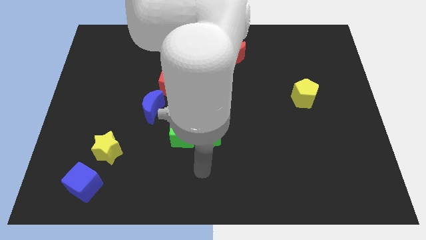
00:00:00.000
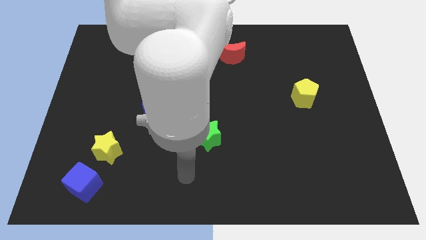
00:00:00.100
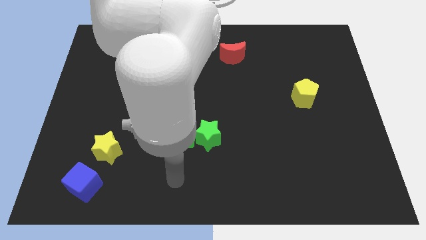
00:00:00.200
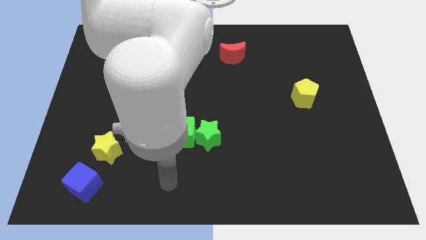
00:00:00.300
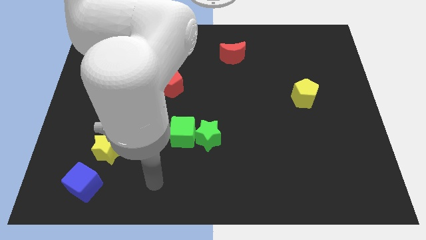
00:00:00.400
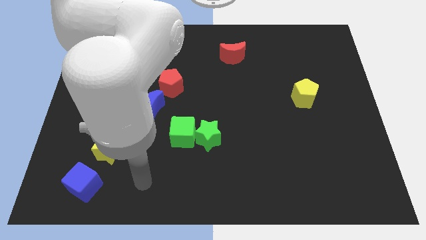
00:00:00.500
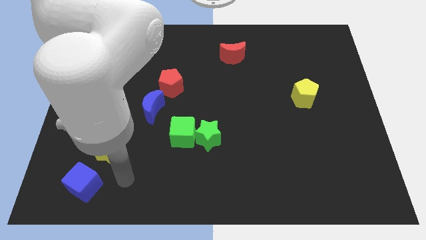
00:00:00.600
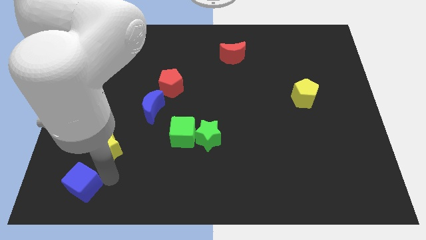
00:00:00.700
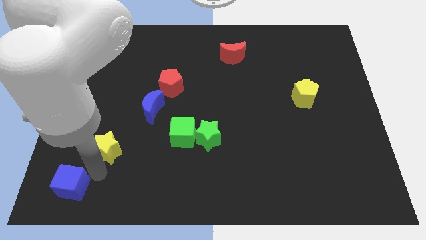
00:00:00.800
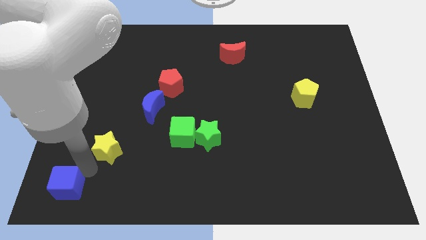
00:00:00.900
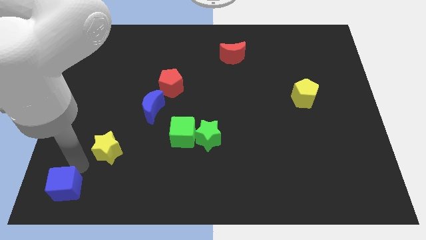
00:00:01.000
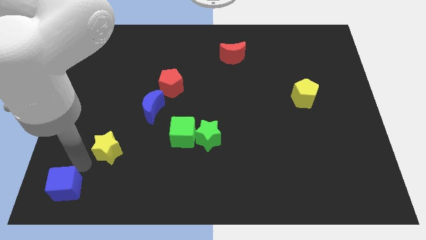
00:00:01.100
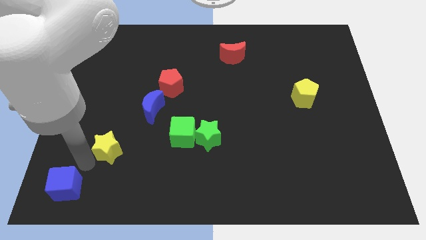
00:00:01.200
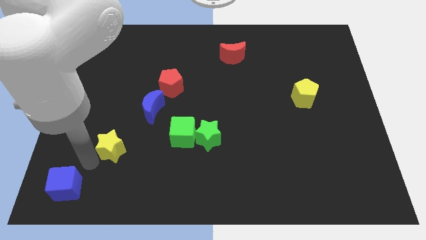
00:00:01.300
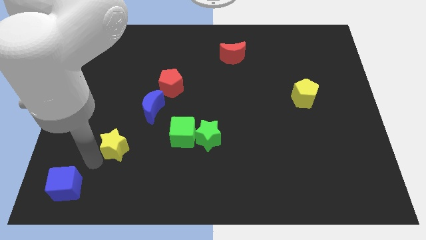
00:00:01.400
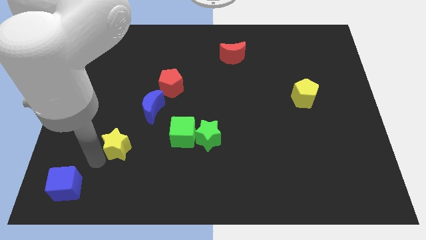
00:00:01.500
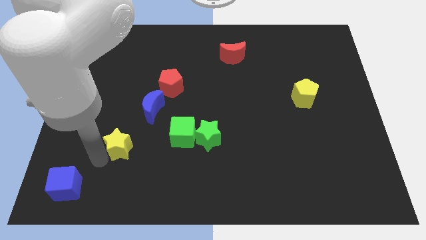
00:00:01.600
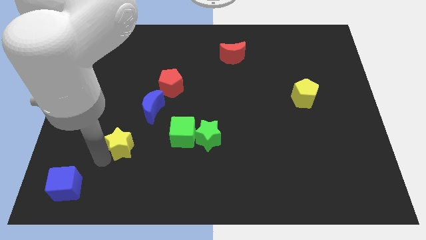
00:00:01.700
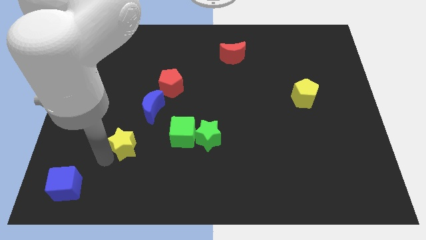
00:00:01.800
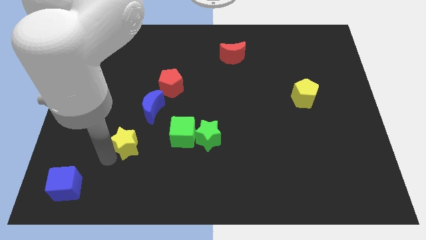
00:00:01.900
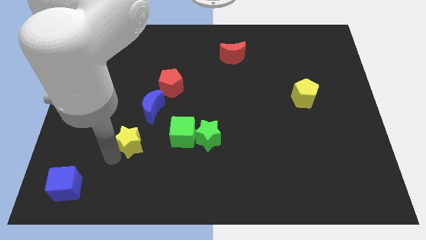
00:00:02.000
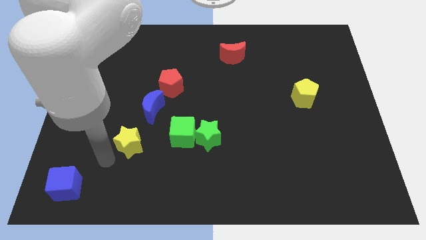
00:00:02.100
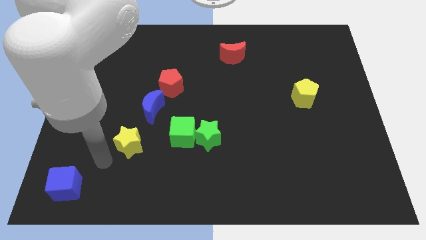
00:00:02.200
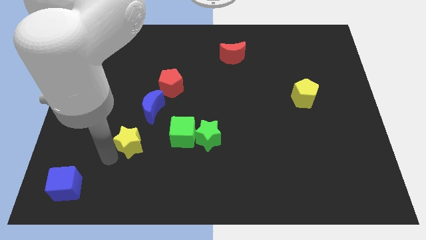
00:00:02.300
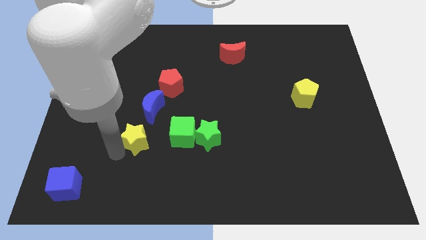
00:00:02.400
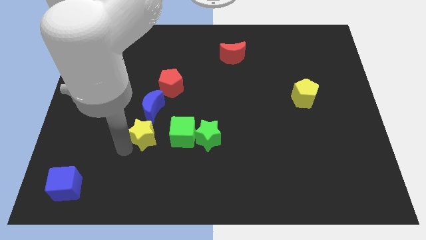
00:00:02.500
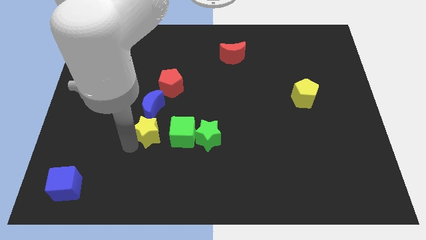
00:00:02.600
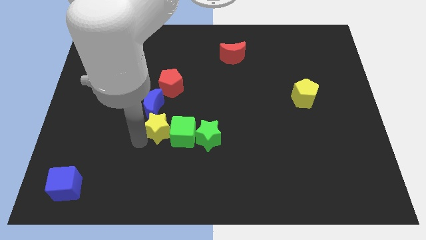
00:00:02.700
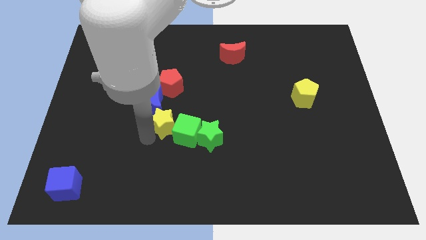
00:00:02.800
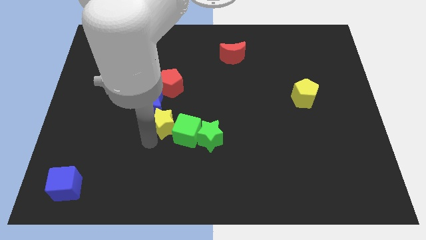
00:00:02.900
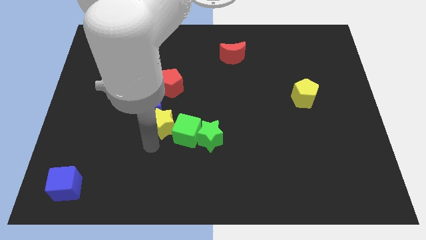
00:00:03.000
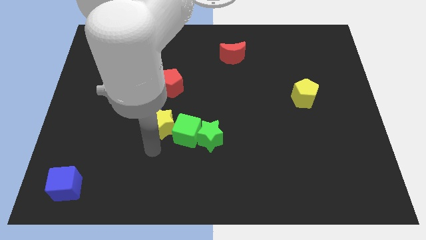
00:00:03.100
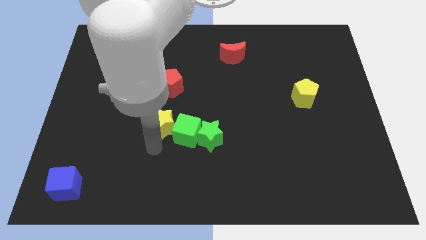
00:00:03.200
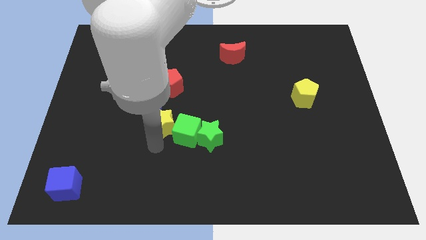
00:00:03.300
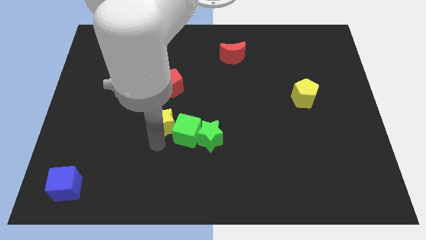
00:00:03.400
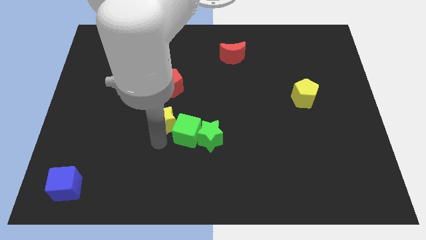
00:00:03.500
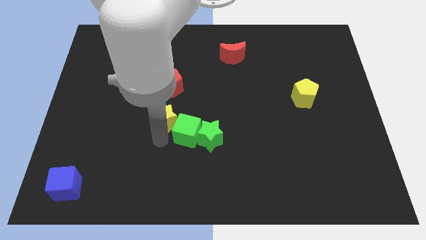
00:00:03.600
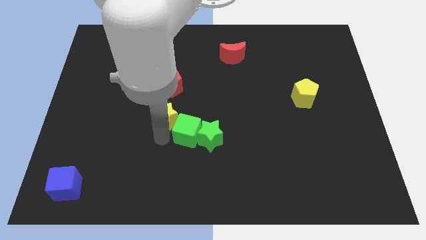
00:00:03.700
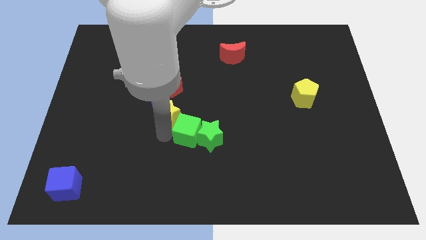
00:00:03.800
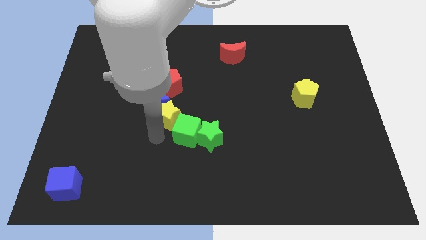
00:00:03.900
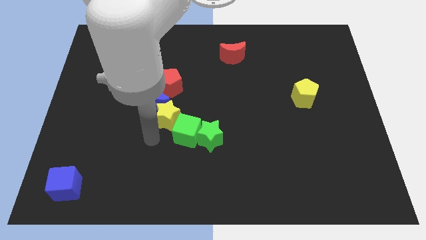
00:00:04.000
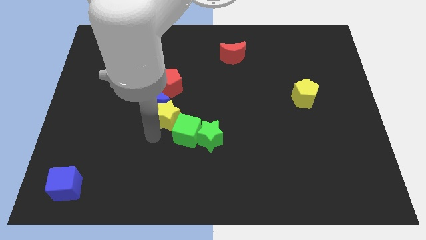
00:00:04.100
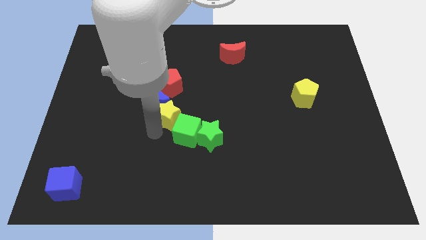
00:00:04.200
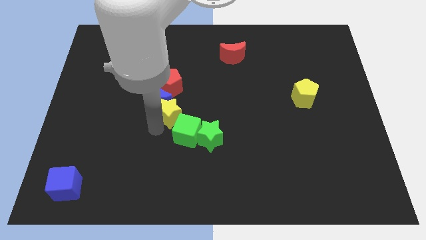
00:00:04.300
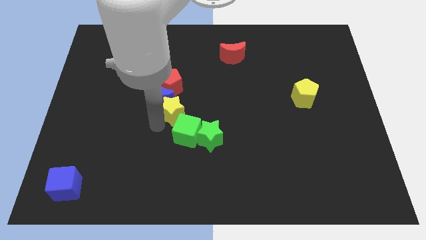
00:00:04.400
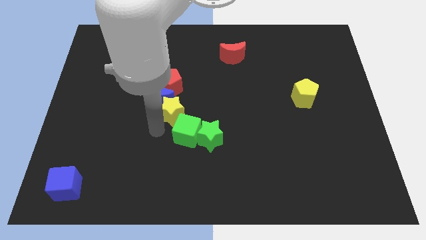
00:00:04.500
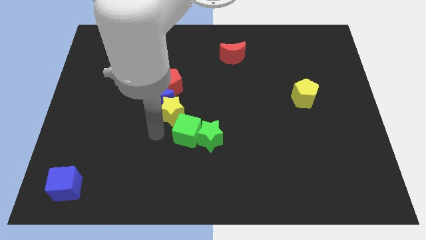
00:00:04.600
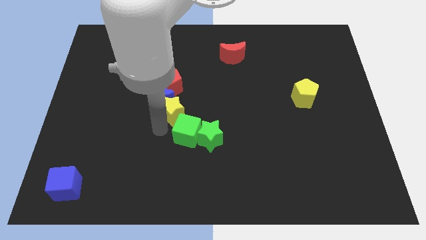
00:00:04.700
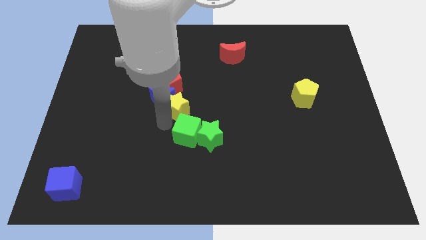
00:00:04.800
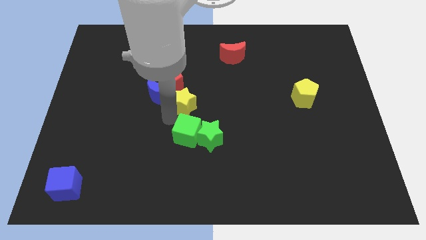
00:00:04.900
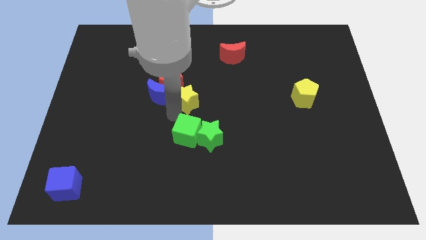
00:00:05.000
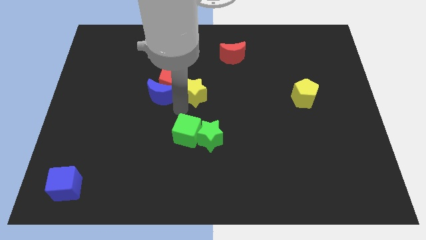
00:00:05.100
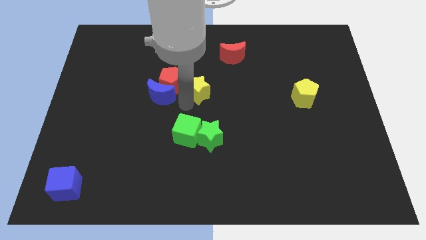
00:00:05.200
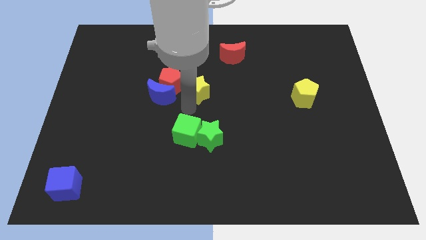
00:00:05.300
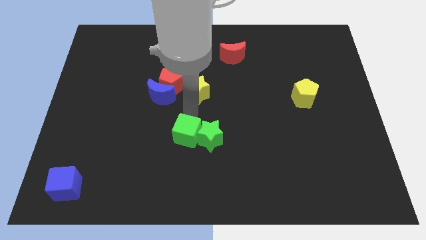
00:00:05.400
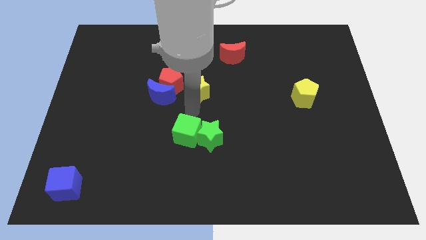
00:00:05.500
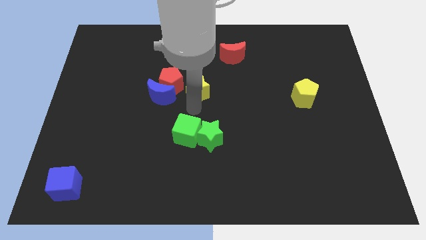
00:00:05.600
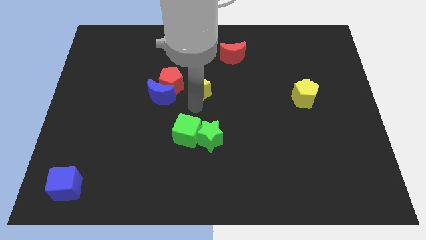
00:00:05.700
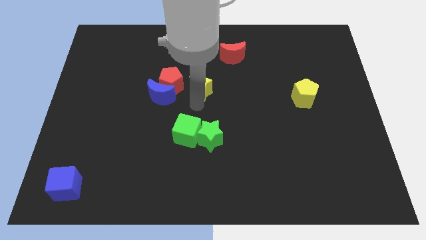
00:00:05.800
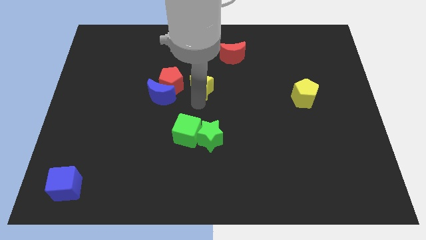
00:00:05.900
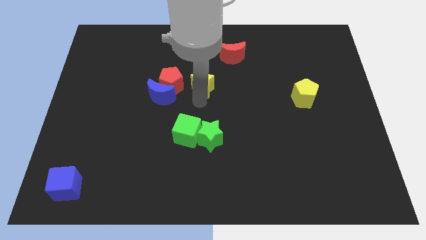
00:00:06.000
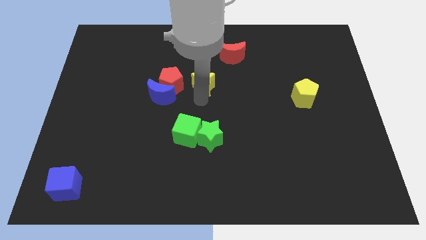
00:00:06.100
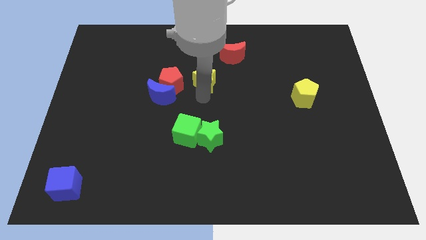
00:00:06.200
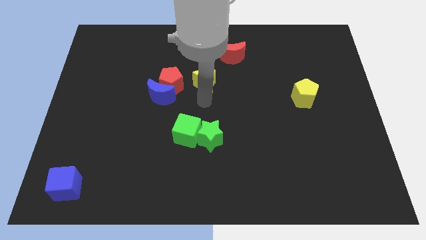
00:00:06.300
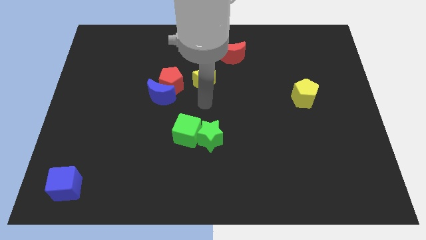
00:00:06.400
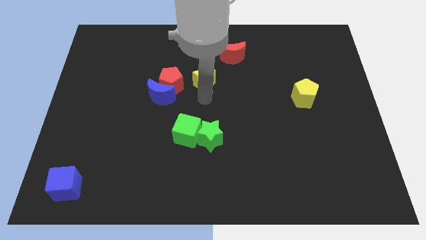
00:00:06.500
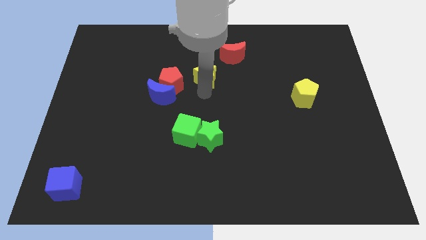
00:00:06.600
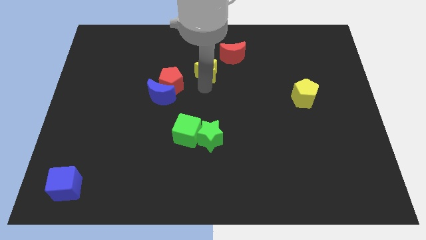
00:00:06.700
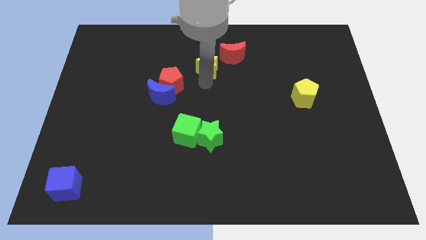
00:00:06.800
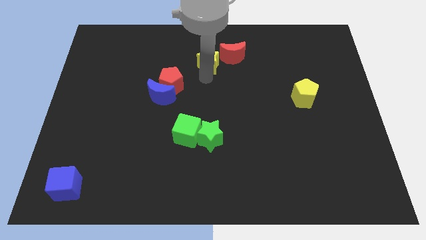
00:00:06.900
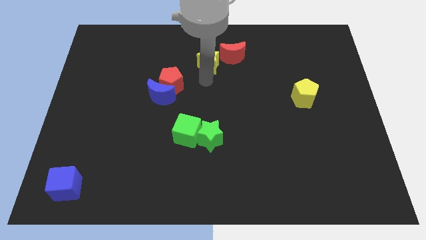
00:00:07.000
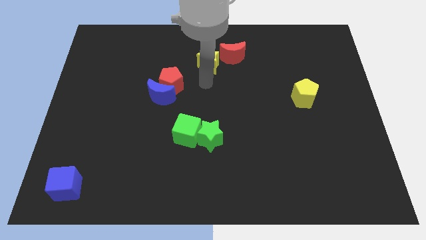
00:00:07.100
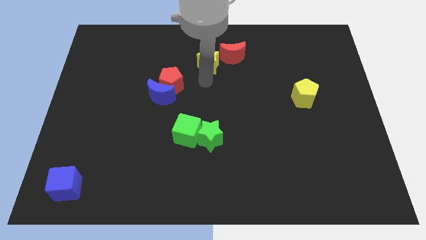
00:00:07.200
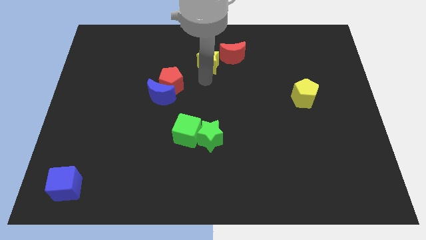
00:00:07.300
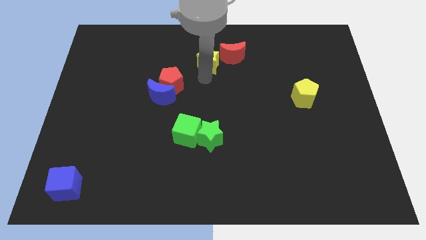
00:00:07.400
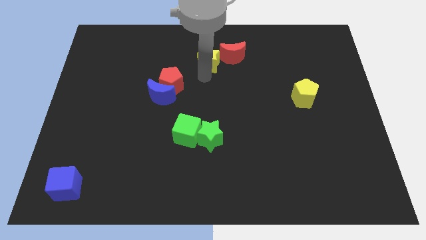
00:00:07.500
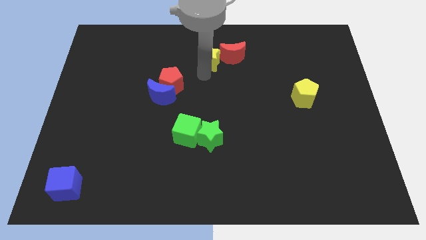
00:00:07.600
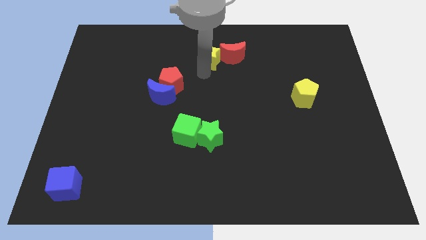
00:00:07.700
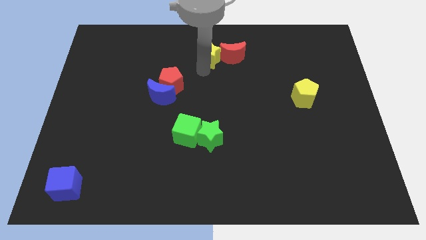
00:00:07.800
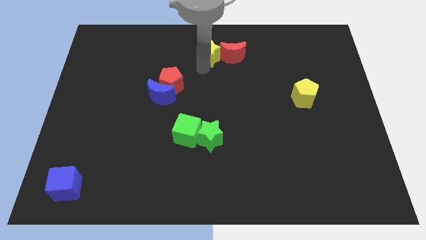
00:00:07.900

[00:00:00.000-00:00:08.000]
put the yellow star to the top
